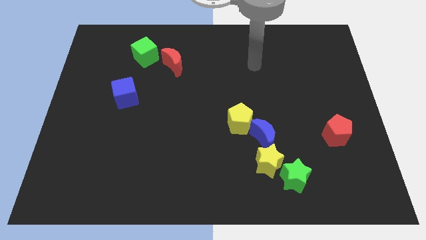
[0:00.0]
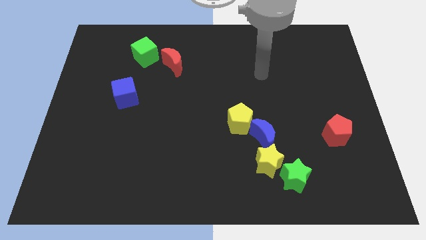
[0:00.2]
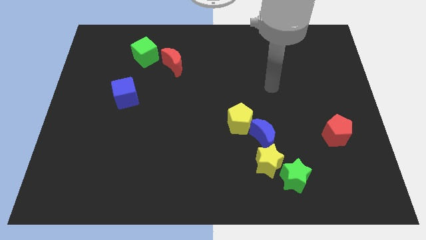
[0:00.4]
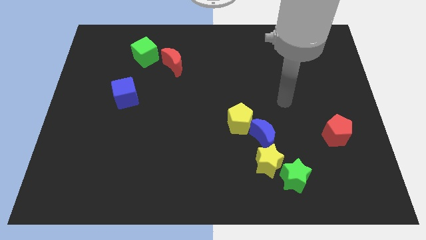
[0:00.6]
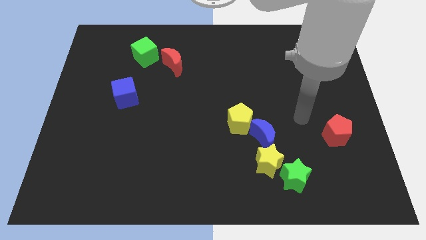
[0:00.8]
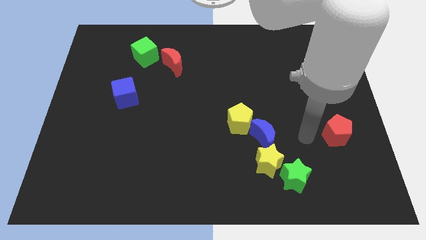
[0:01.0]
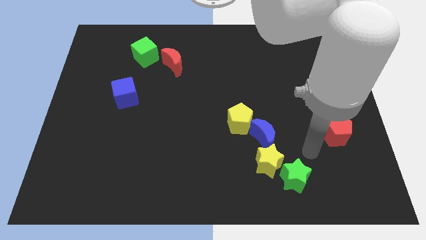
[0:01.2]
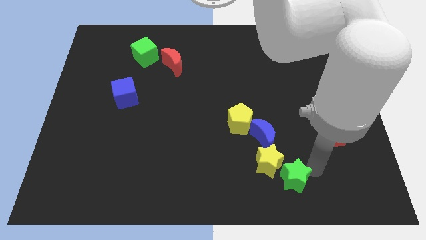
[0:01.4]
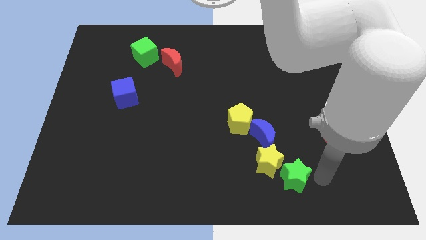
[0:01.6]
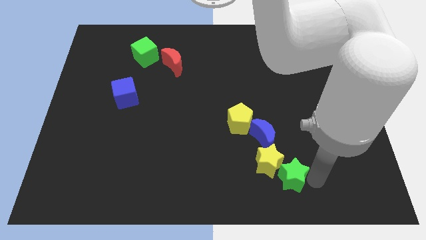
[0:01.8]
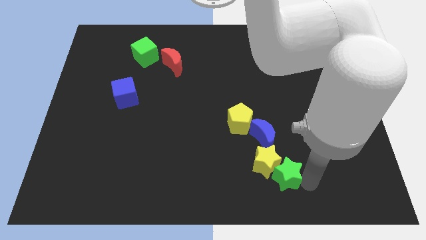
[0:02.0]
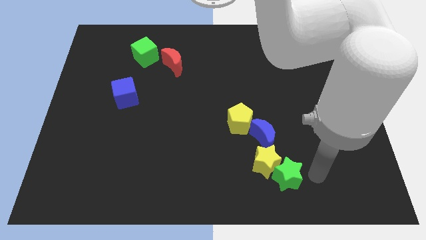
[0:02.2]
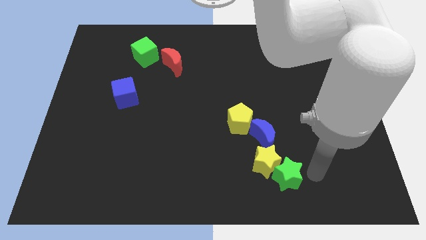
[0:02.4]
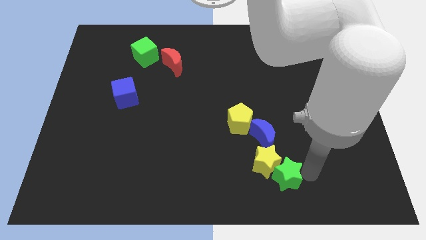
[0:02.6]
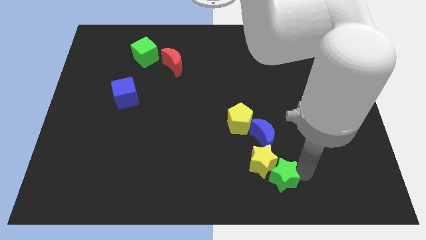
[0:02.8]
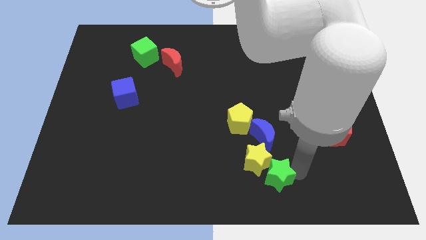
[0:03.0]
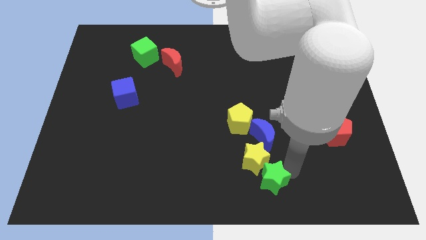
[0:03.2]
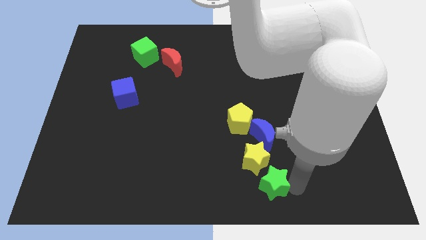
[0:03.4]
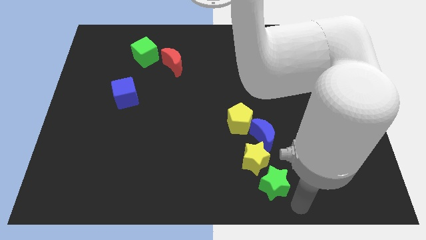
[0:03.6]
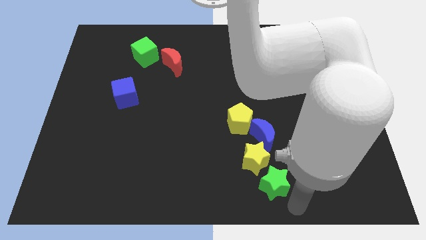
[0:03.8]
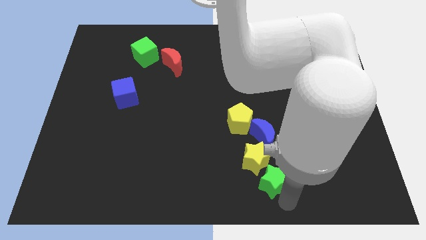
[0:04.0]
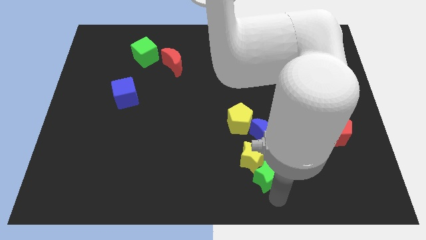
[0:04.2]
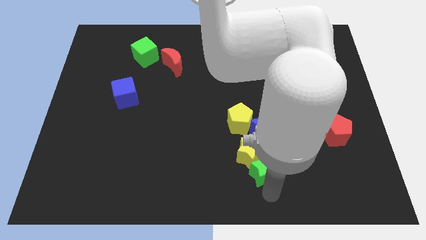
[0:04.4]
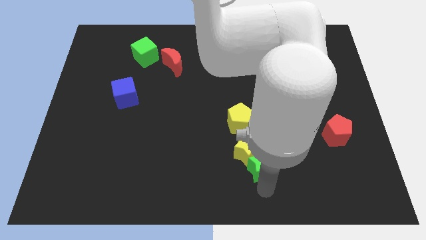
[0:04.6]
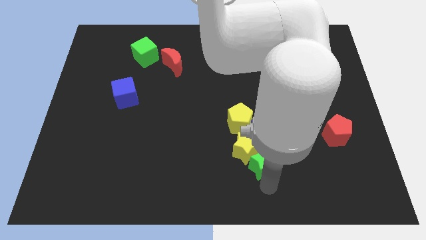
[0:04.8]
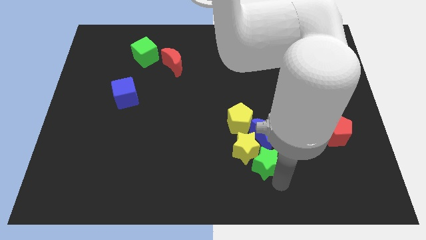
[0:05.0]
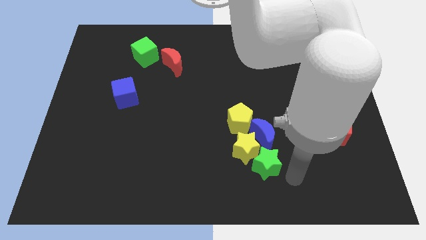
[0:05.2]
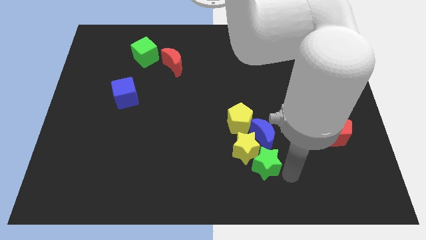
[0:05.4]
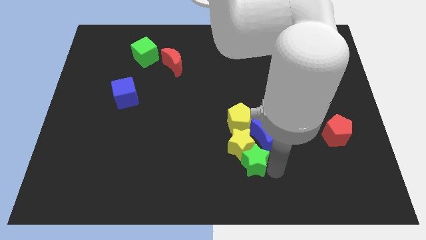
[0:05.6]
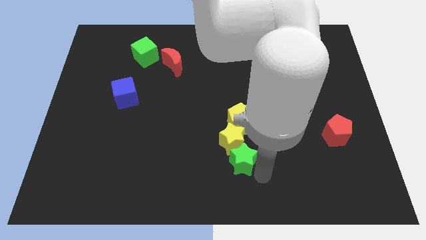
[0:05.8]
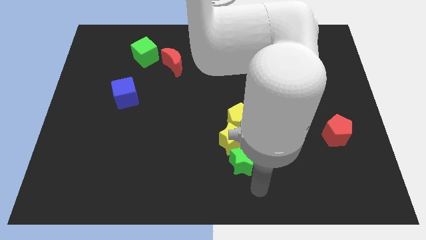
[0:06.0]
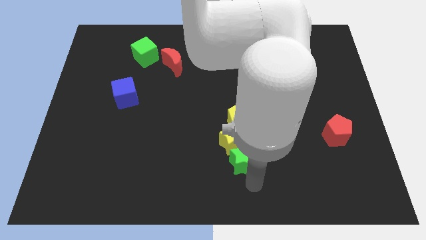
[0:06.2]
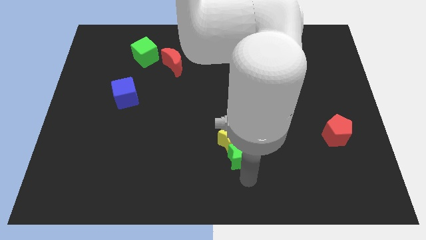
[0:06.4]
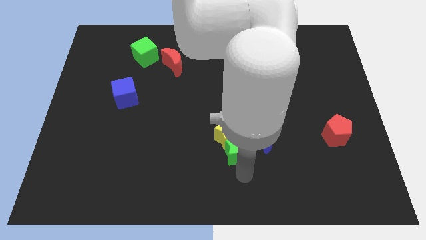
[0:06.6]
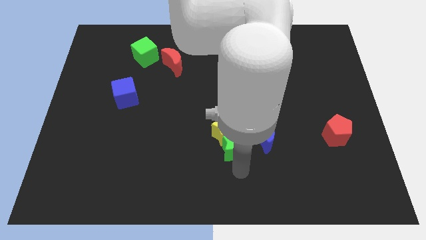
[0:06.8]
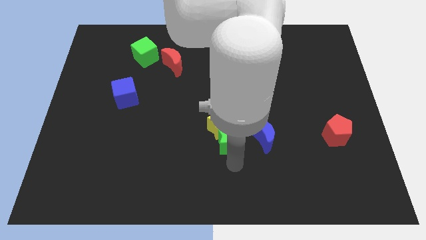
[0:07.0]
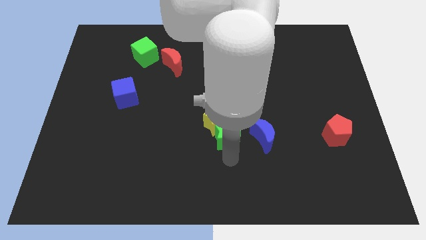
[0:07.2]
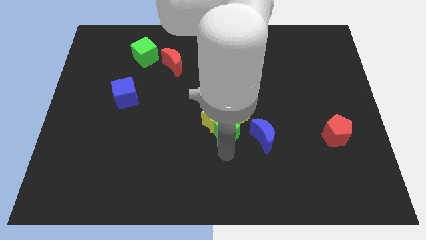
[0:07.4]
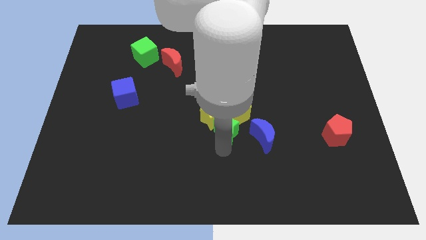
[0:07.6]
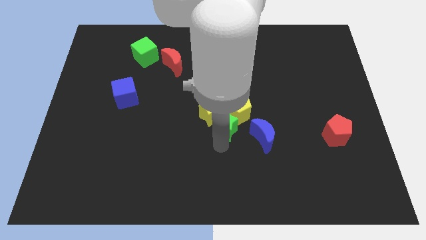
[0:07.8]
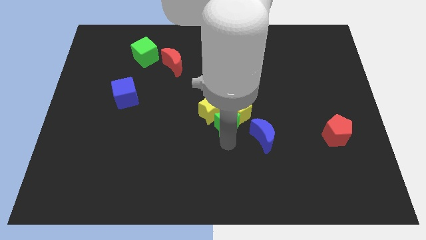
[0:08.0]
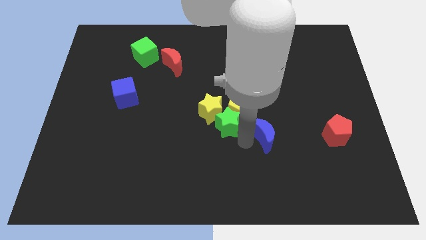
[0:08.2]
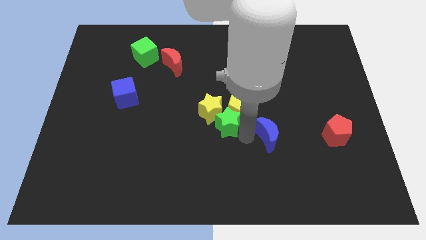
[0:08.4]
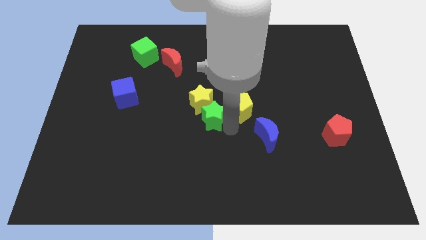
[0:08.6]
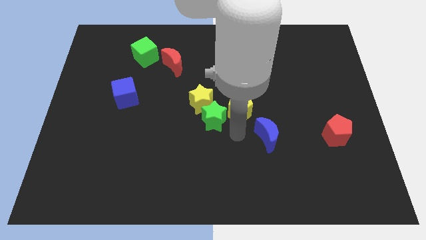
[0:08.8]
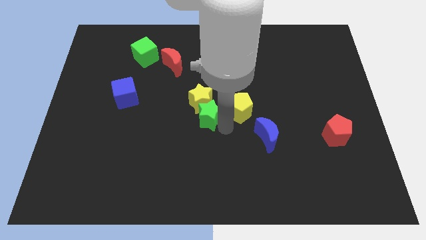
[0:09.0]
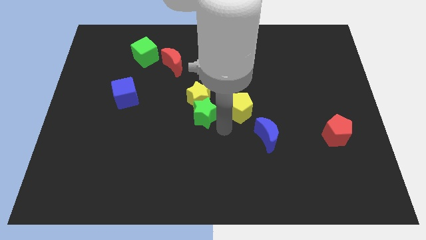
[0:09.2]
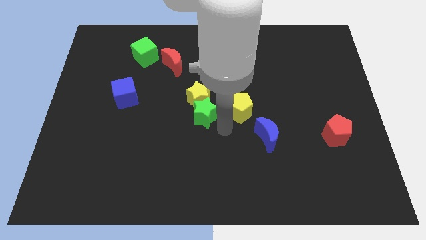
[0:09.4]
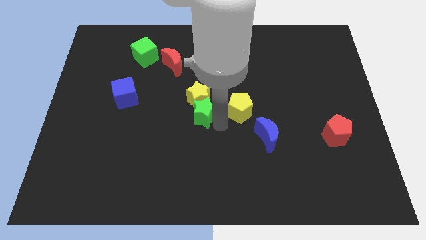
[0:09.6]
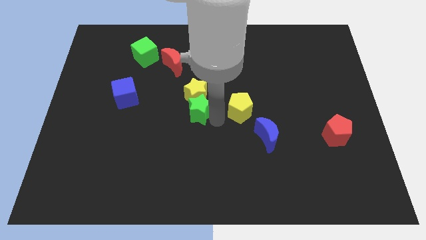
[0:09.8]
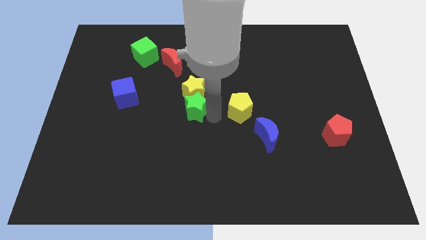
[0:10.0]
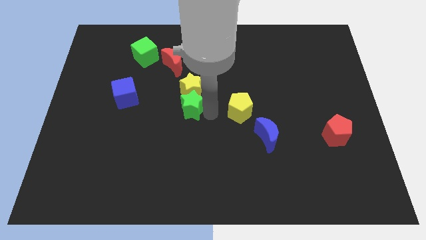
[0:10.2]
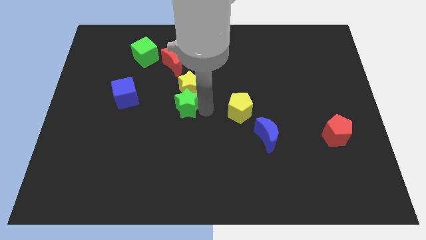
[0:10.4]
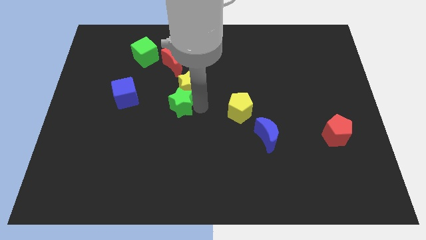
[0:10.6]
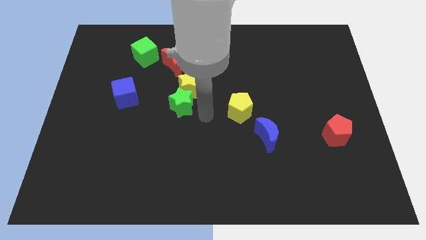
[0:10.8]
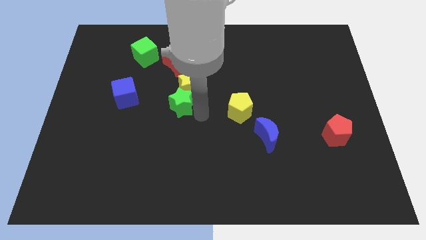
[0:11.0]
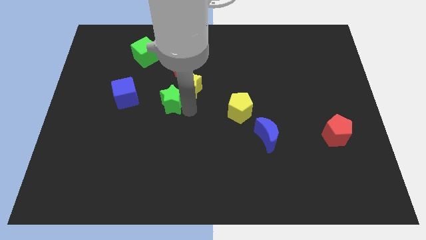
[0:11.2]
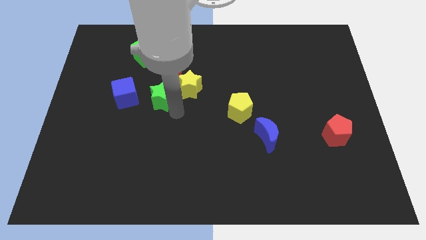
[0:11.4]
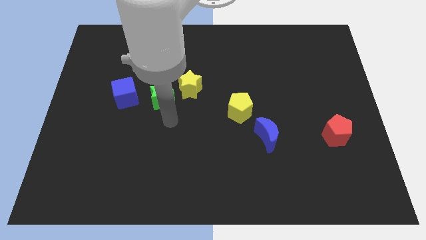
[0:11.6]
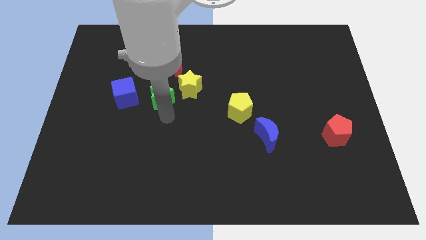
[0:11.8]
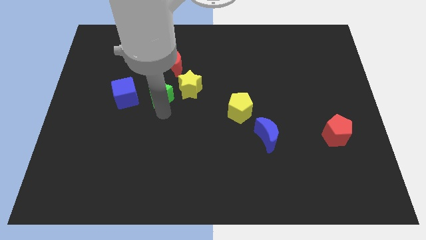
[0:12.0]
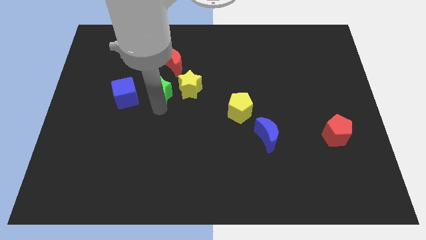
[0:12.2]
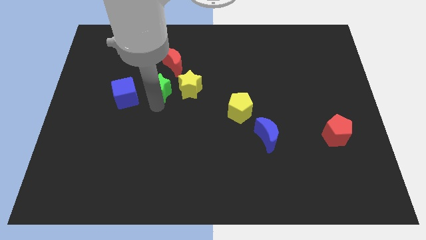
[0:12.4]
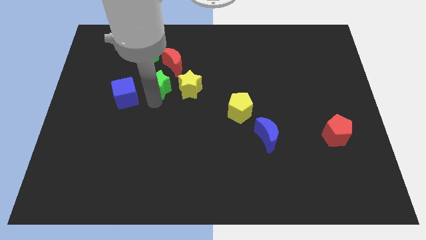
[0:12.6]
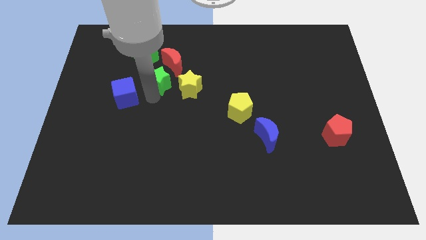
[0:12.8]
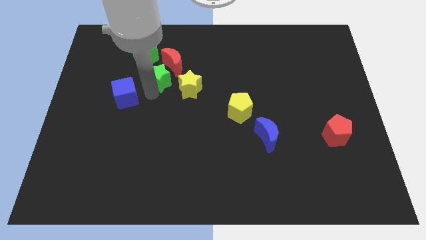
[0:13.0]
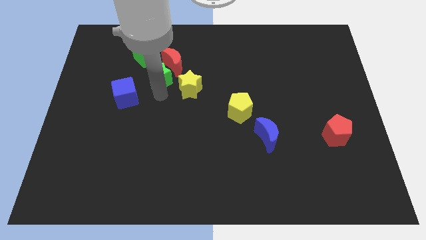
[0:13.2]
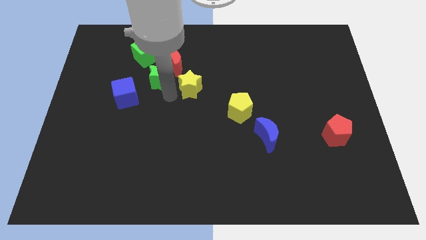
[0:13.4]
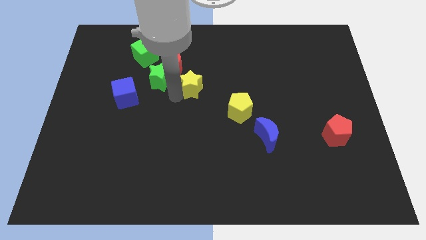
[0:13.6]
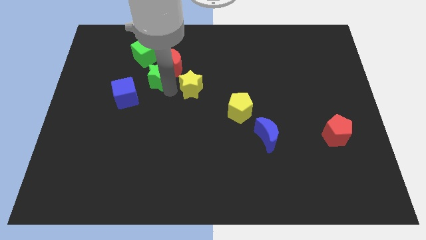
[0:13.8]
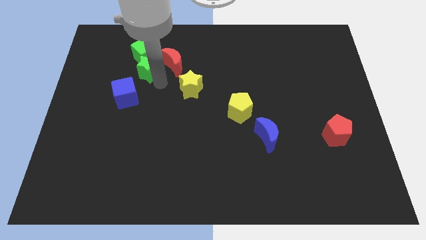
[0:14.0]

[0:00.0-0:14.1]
push the green star to the green cube

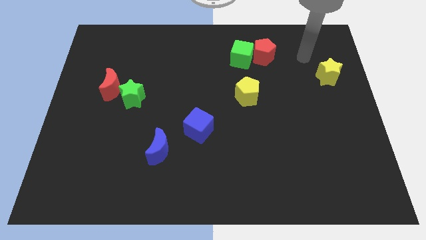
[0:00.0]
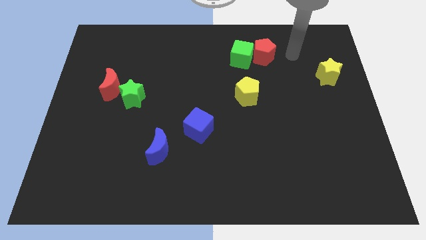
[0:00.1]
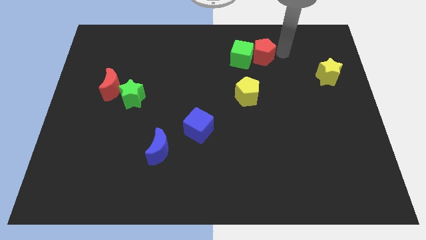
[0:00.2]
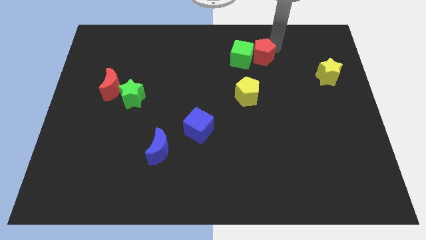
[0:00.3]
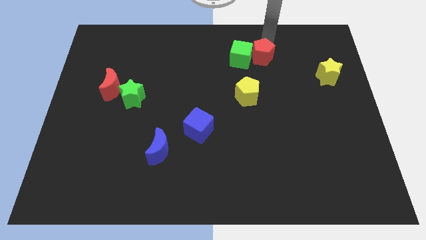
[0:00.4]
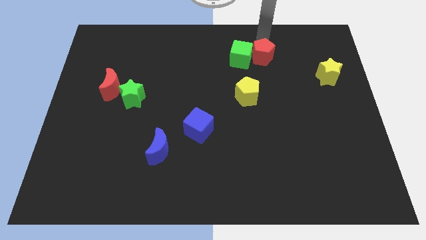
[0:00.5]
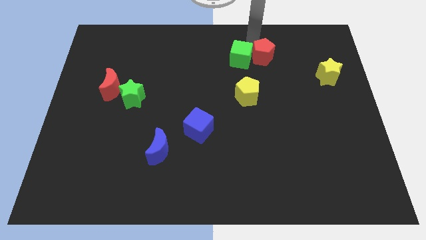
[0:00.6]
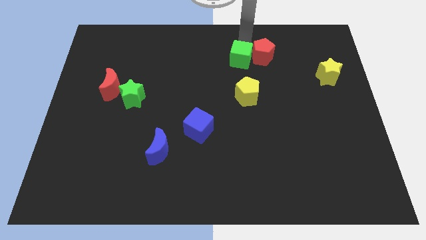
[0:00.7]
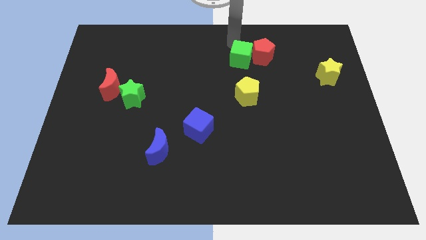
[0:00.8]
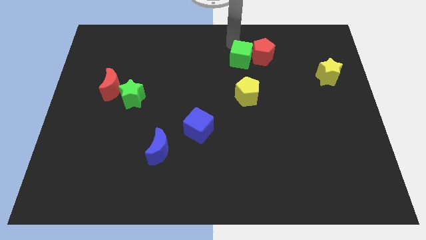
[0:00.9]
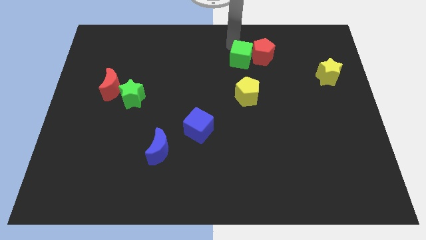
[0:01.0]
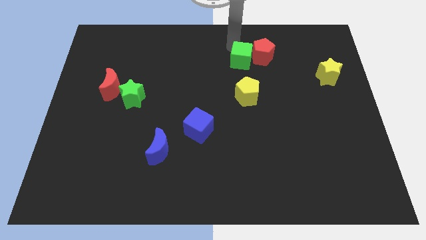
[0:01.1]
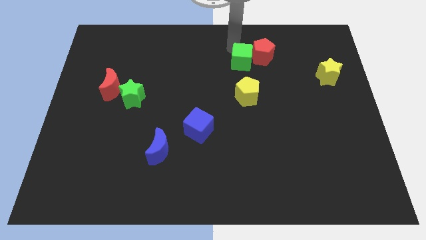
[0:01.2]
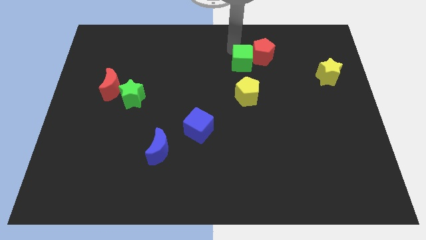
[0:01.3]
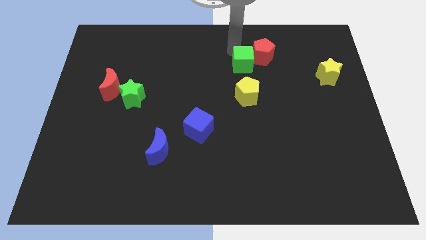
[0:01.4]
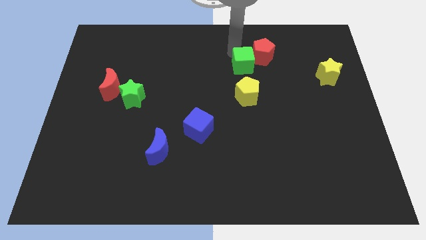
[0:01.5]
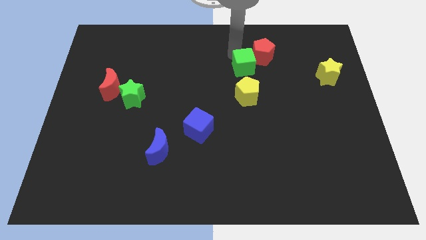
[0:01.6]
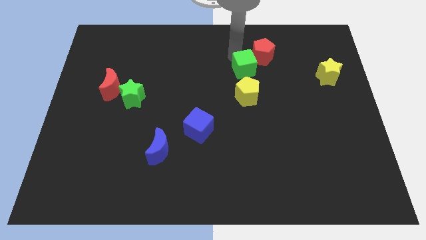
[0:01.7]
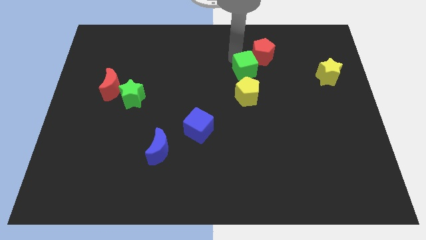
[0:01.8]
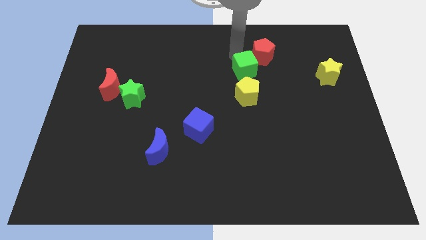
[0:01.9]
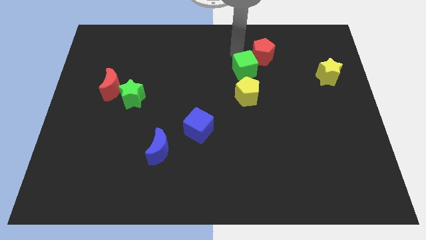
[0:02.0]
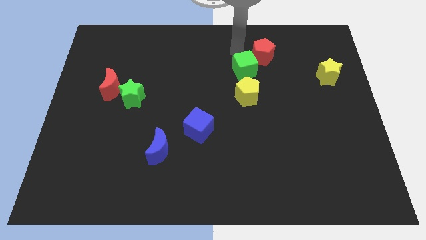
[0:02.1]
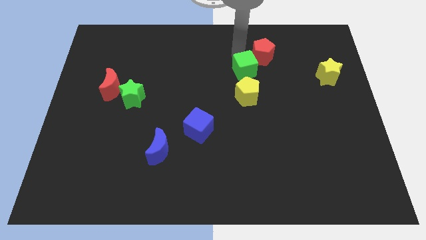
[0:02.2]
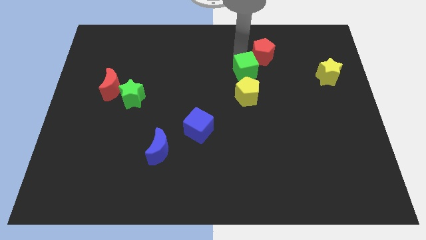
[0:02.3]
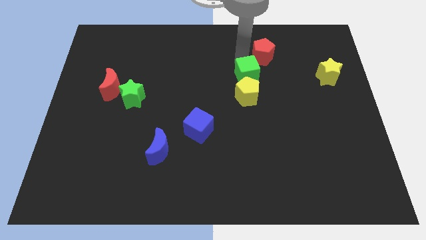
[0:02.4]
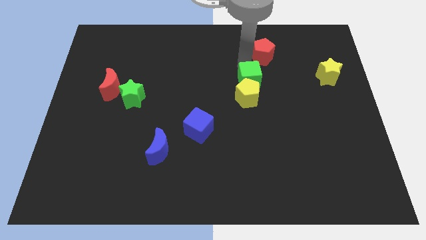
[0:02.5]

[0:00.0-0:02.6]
push the green cube towards the yellow pentagon
